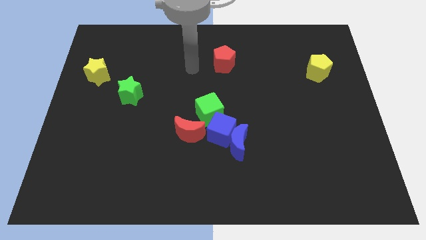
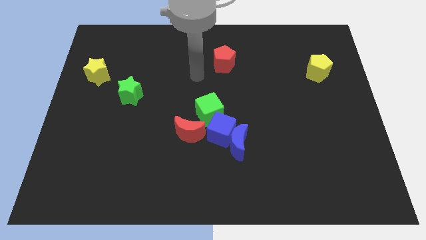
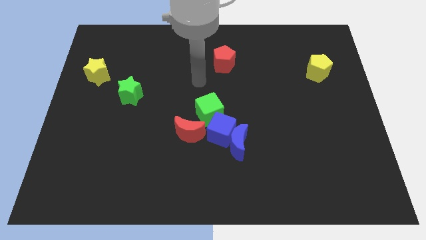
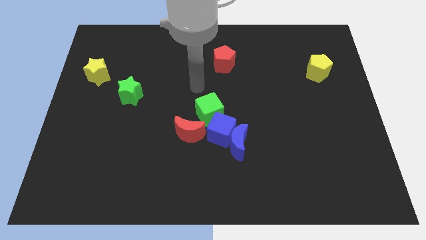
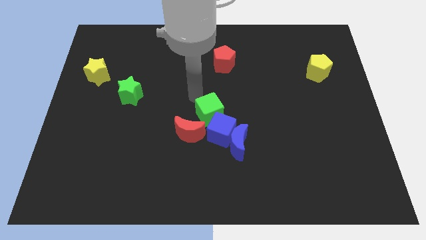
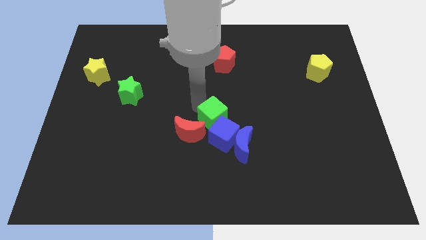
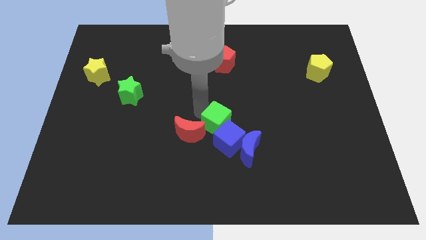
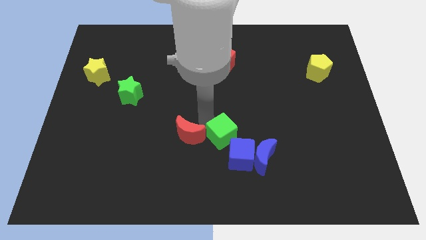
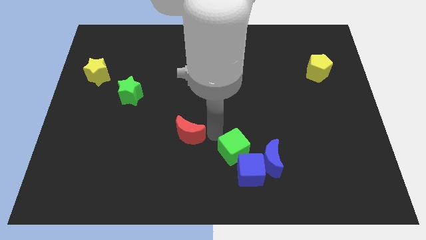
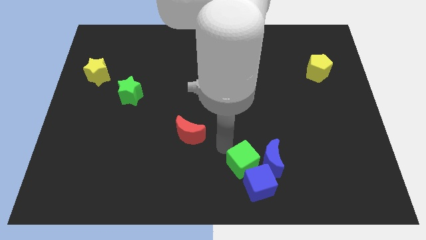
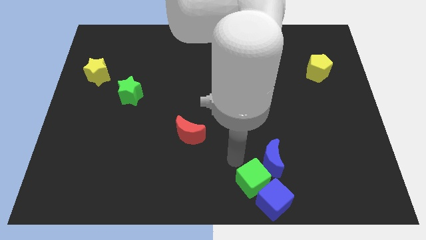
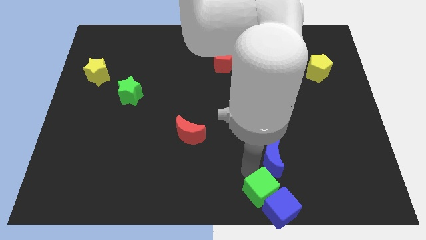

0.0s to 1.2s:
pull the blue moon apart from the blue cube

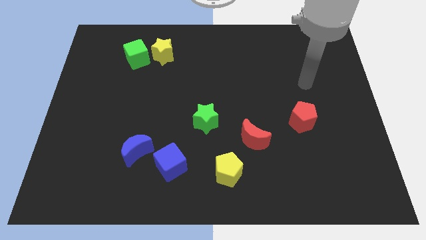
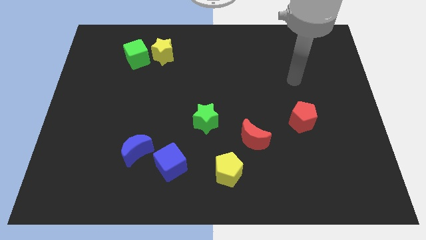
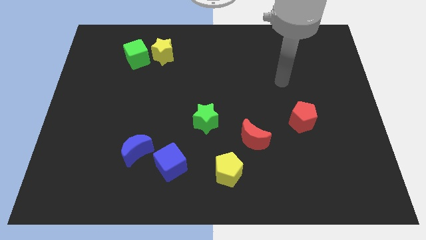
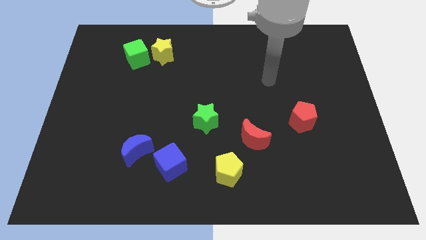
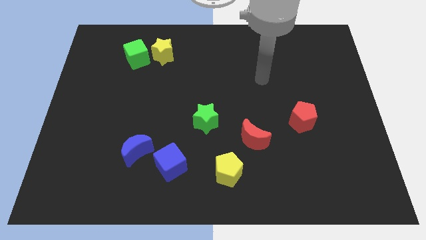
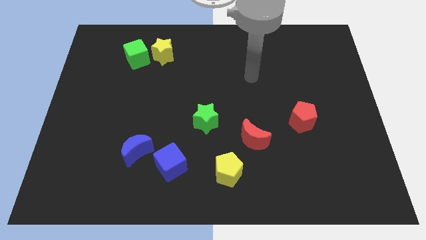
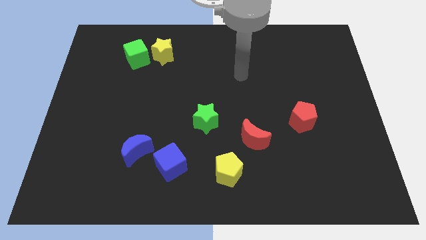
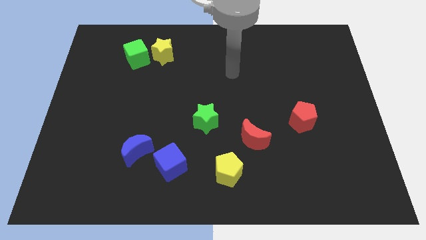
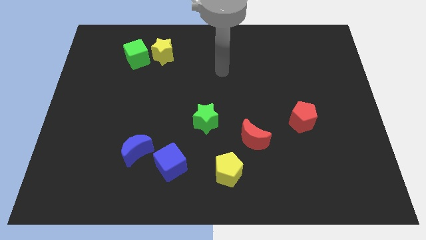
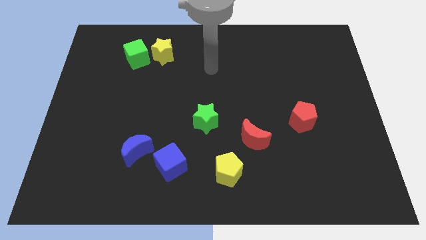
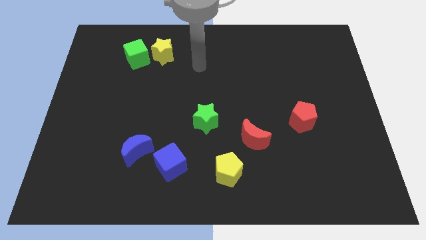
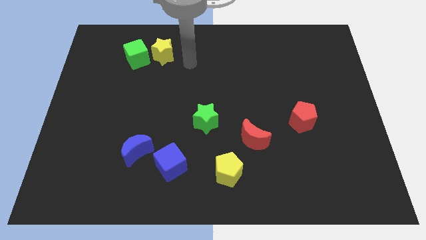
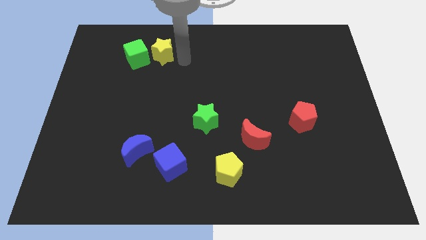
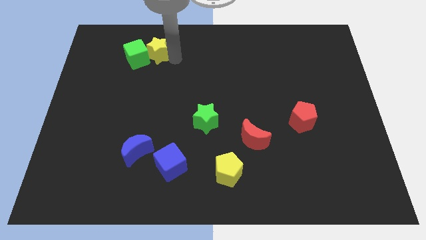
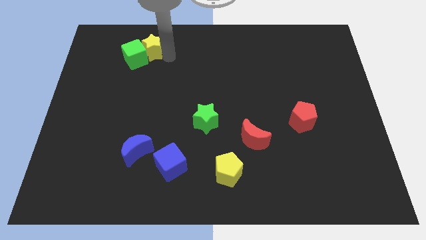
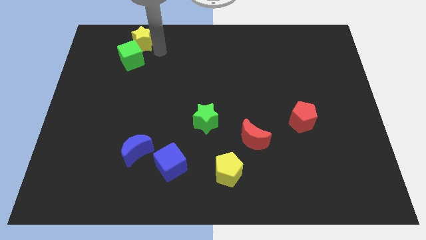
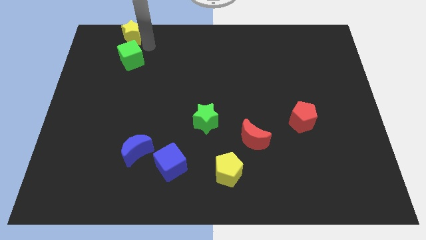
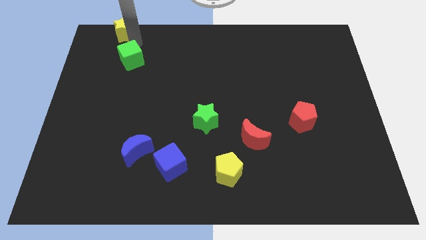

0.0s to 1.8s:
separate the green cube from the yellow star

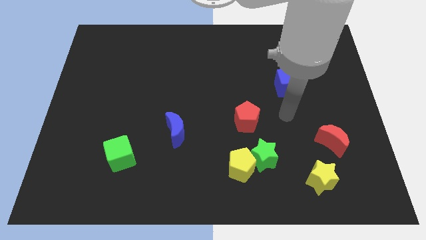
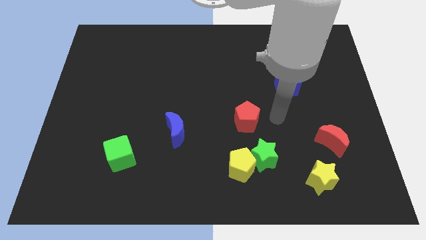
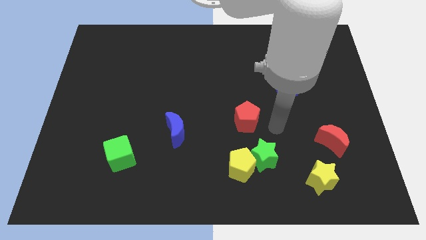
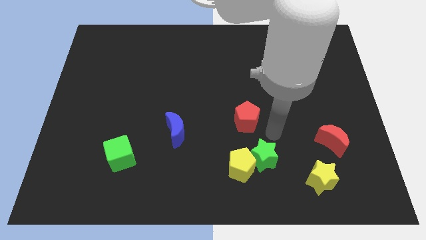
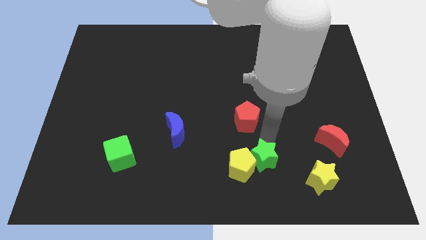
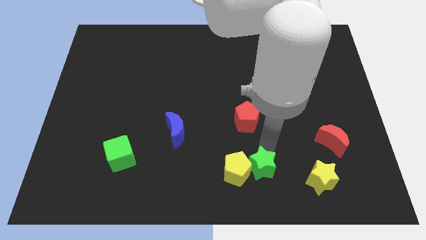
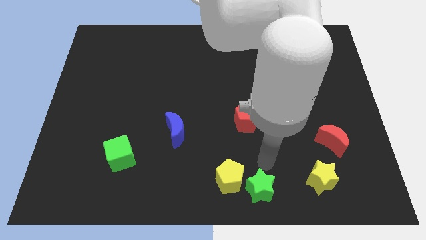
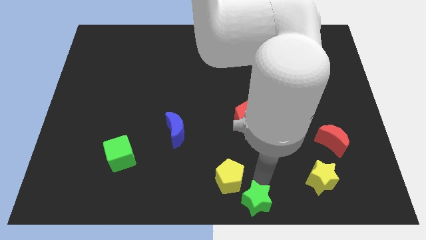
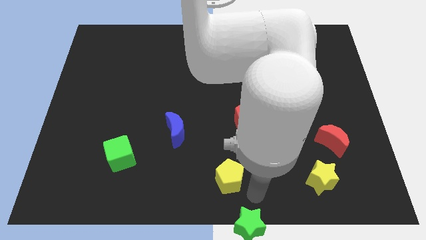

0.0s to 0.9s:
separate the yellow pentagon from the green star

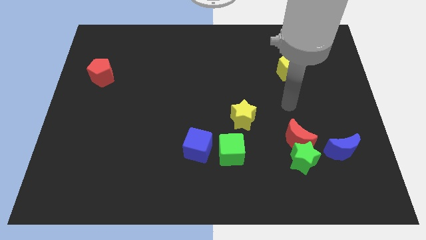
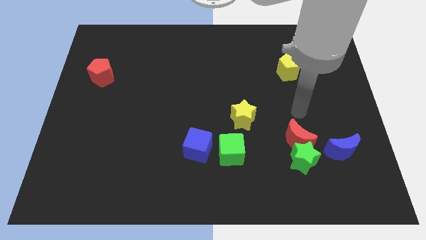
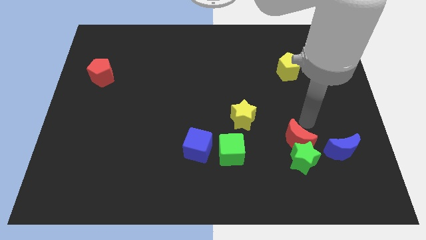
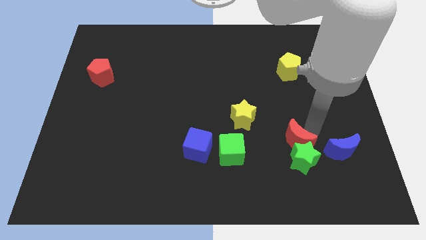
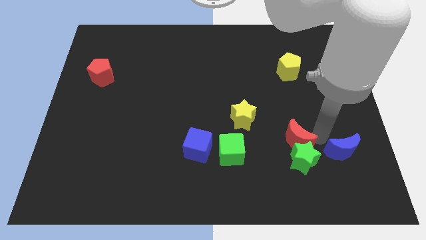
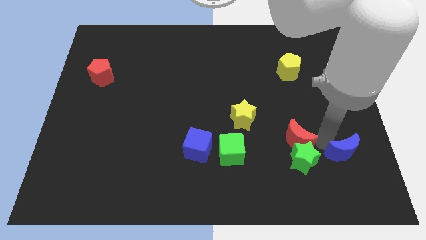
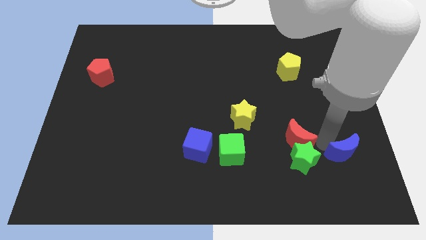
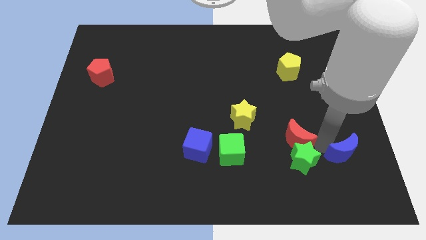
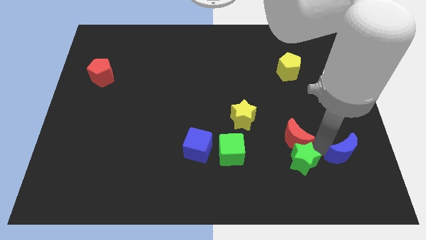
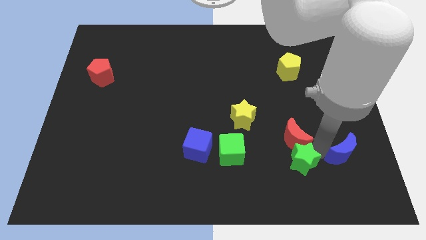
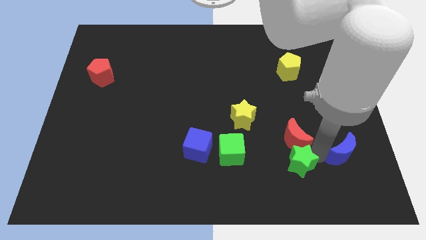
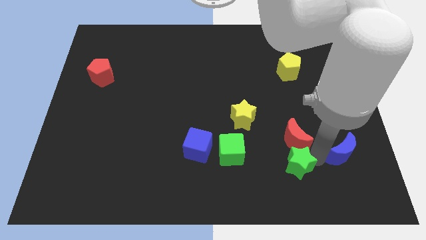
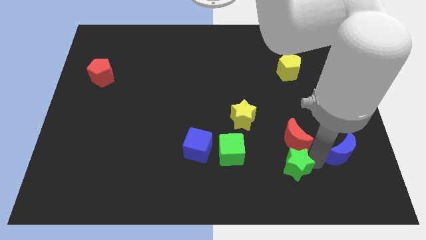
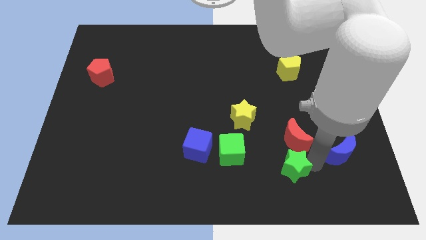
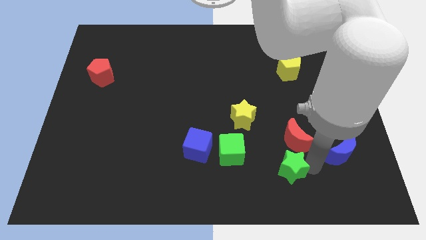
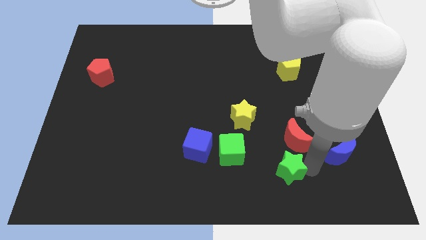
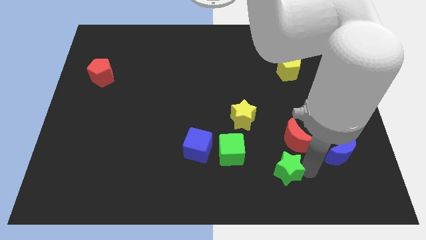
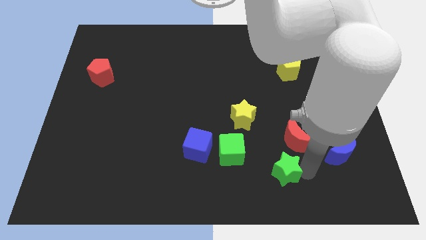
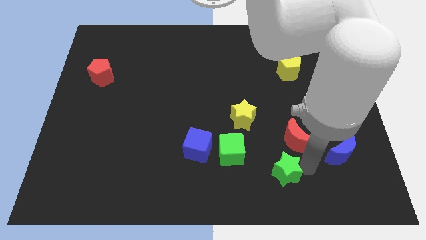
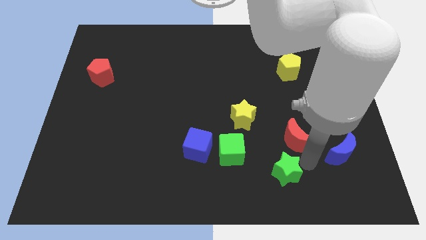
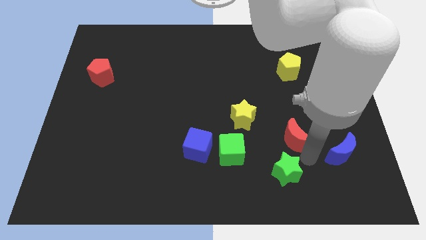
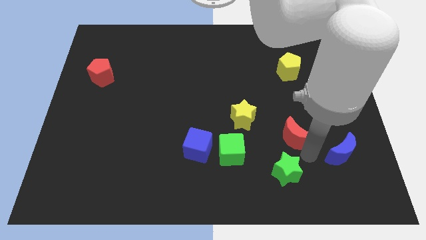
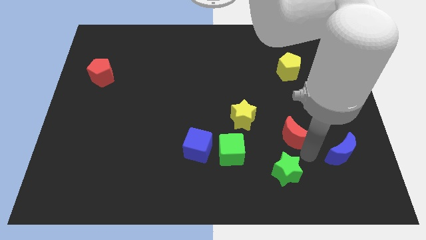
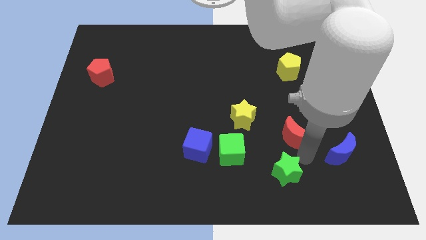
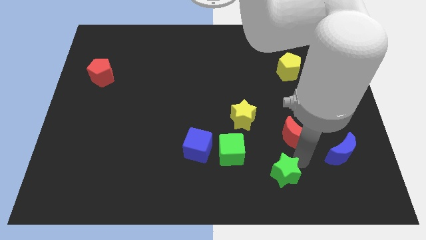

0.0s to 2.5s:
separate the green star from the red moon and blue moon

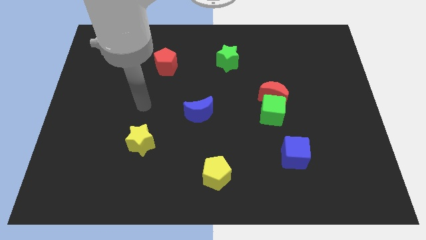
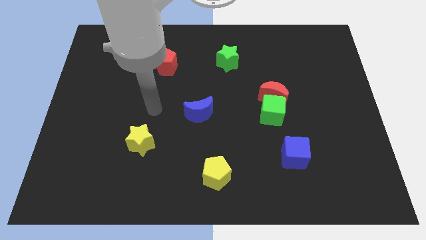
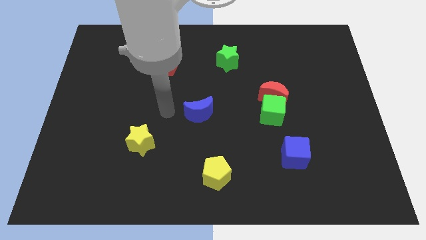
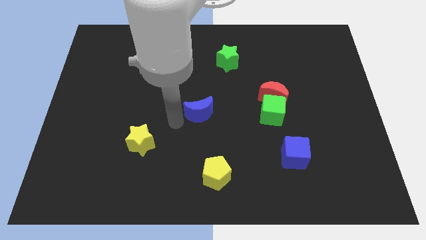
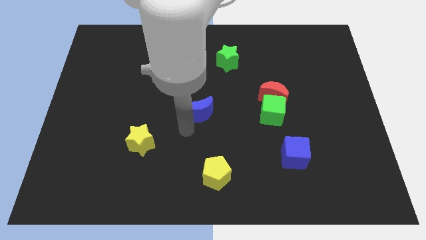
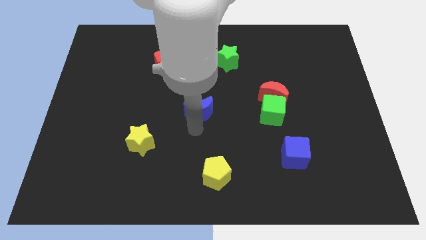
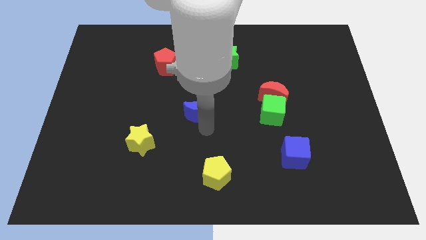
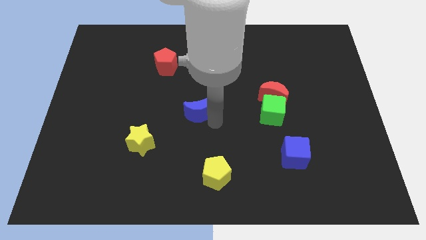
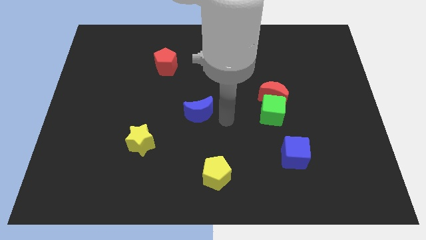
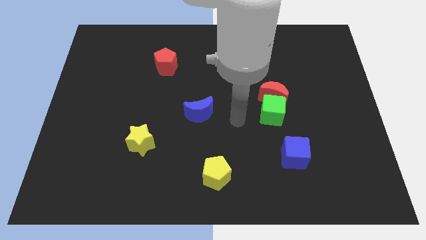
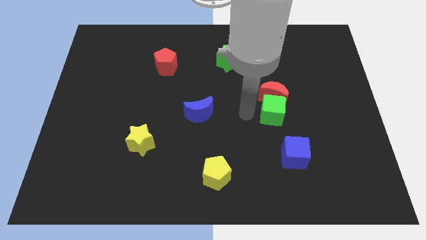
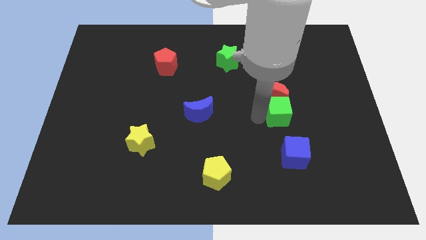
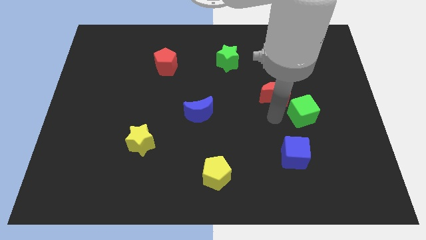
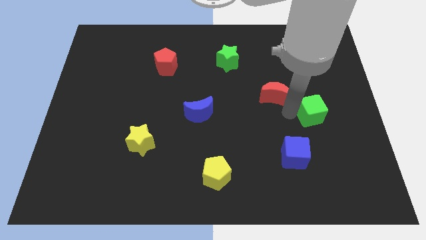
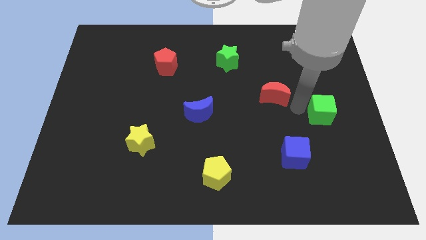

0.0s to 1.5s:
pull the red moon apart from the green cube

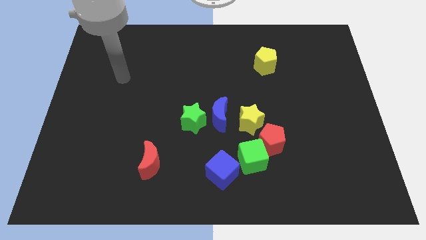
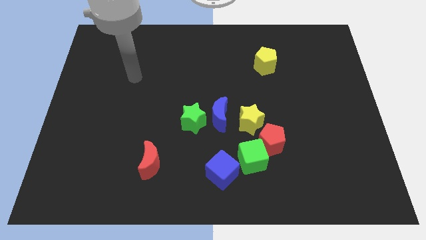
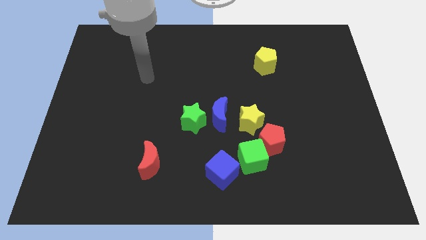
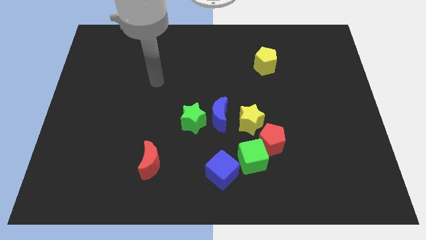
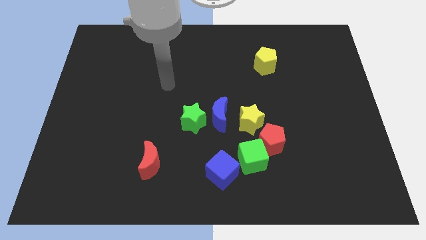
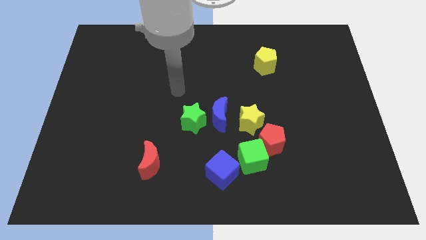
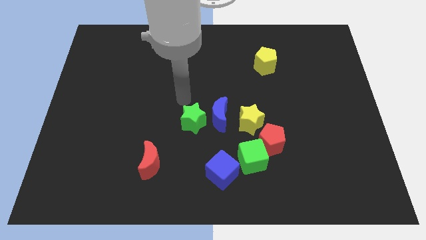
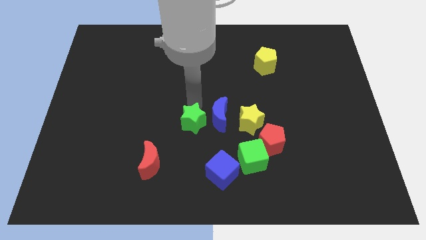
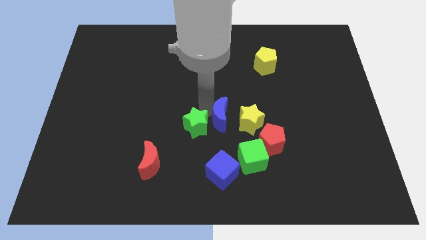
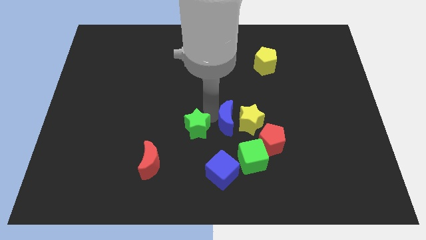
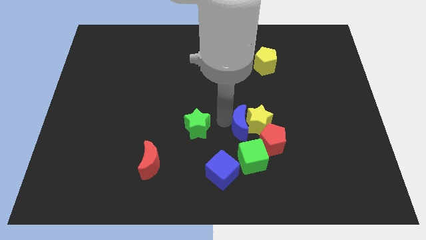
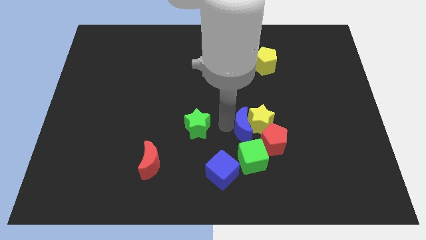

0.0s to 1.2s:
pull the green star apart from the blue moon

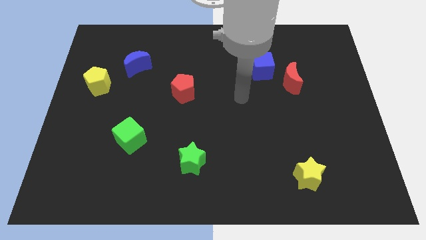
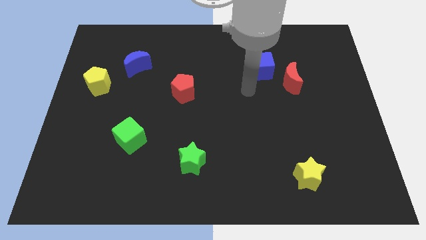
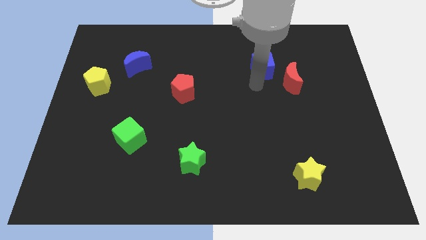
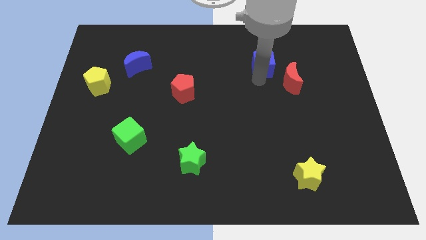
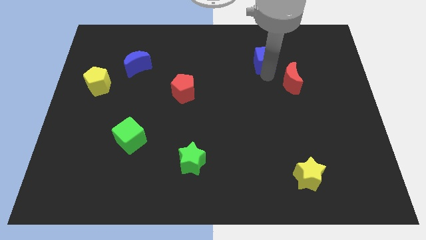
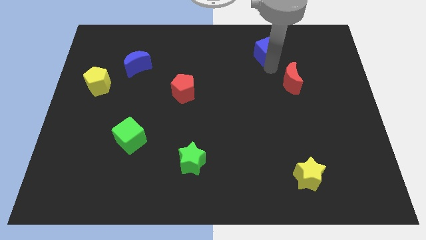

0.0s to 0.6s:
move the red moon away from the blue cube
